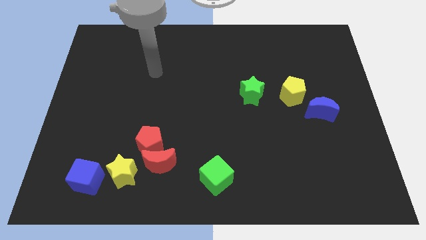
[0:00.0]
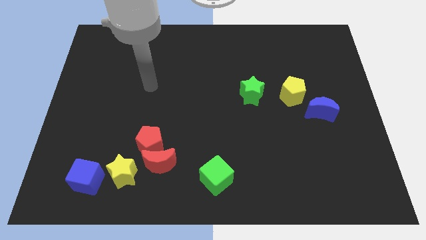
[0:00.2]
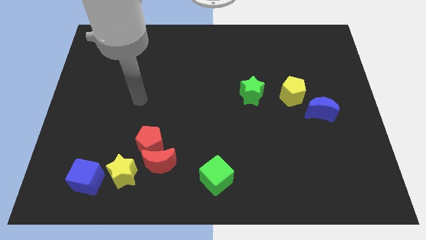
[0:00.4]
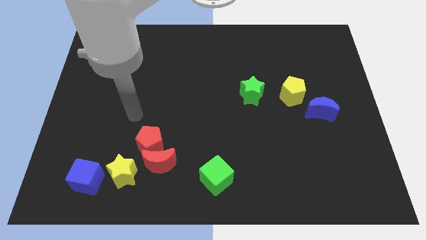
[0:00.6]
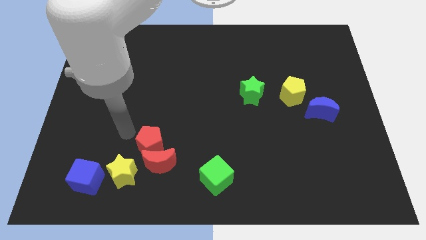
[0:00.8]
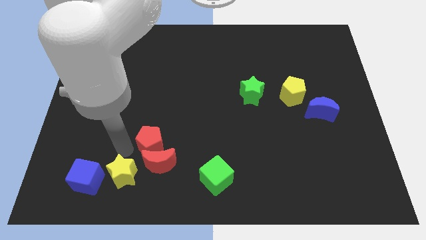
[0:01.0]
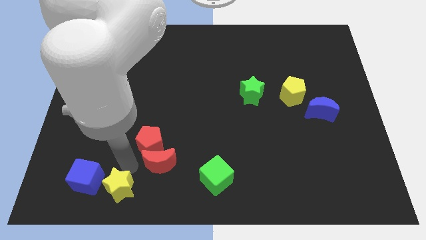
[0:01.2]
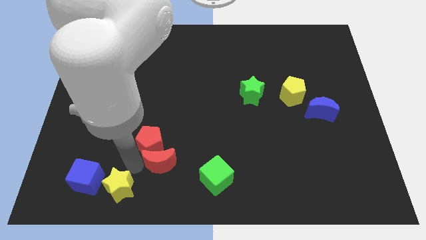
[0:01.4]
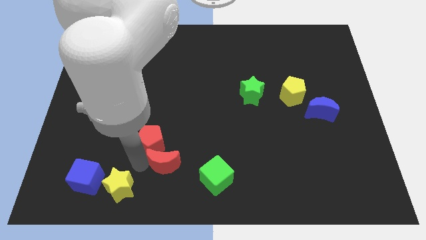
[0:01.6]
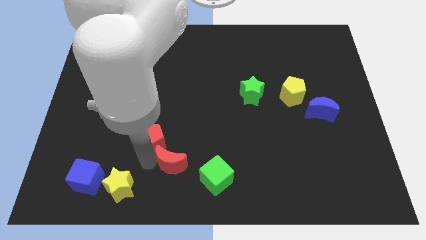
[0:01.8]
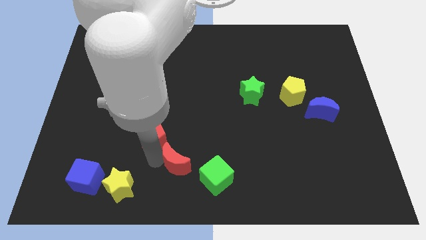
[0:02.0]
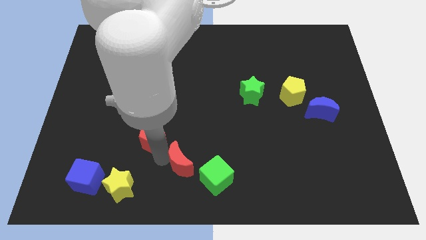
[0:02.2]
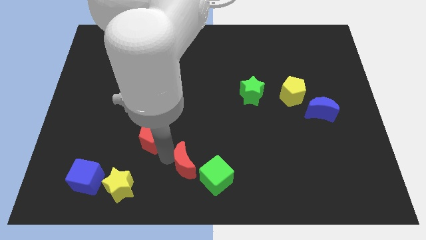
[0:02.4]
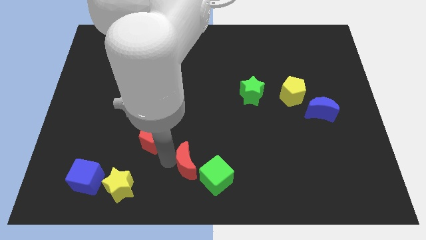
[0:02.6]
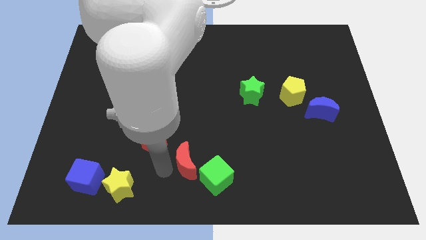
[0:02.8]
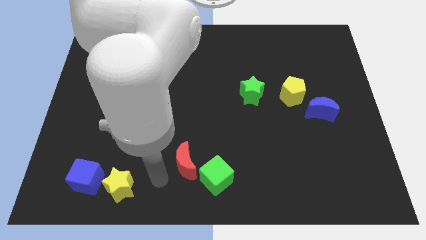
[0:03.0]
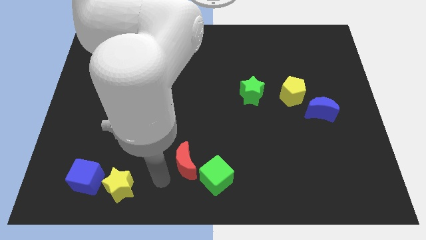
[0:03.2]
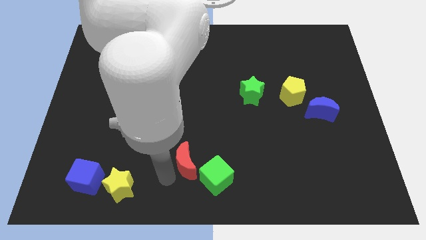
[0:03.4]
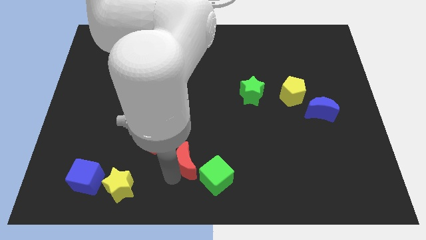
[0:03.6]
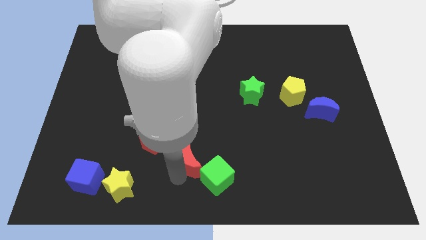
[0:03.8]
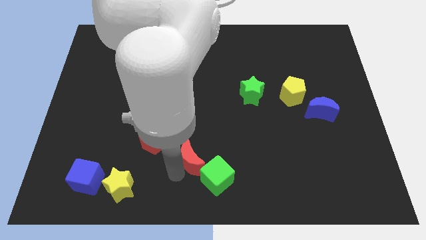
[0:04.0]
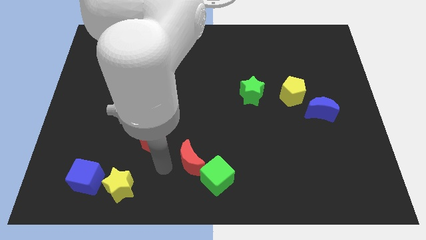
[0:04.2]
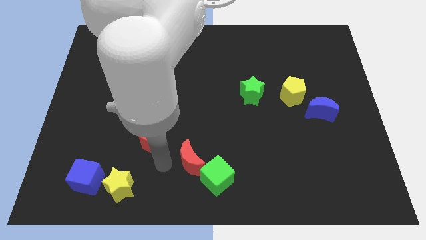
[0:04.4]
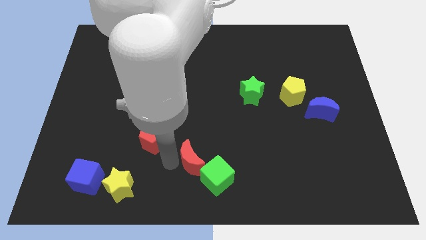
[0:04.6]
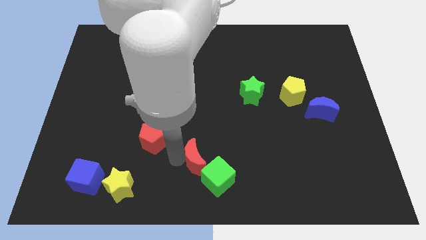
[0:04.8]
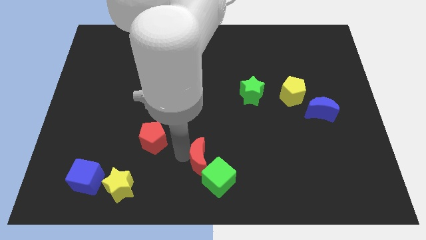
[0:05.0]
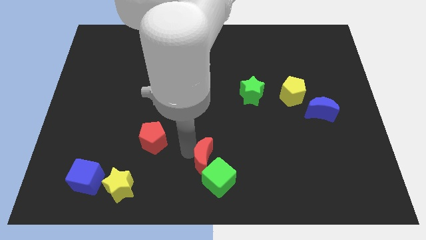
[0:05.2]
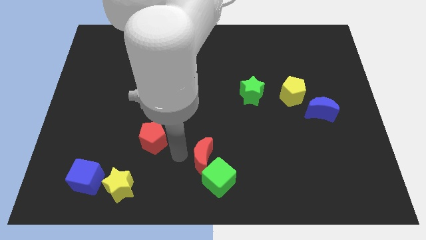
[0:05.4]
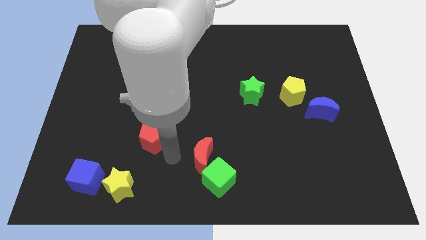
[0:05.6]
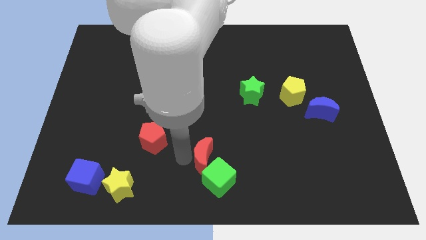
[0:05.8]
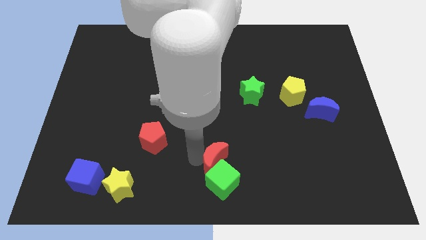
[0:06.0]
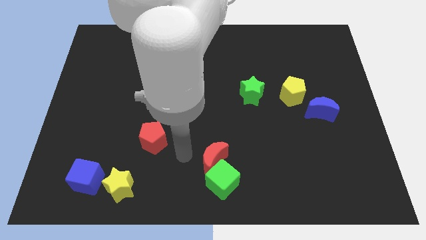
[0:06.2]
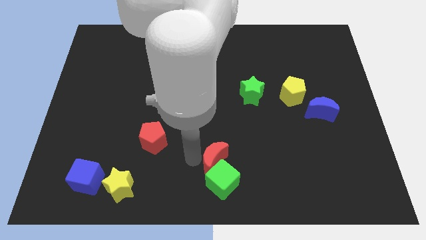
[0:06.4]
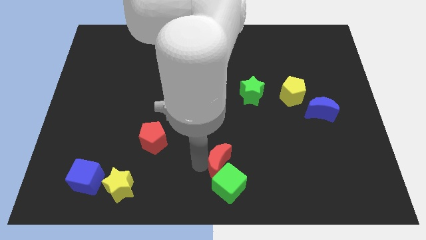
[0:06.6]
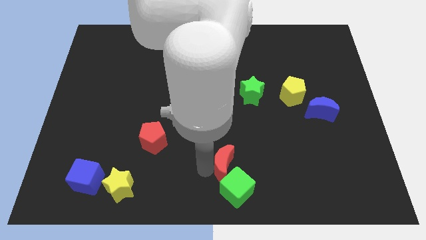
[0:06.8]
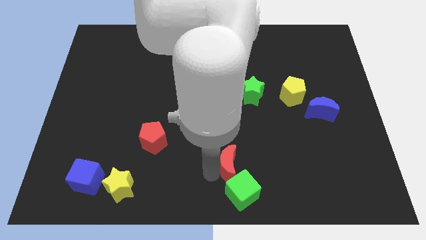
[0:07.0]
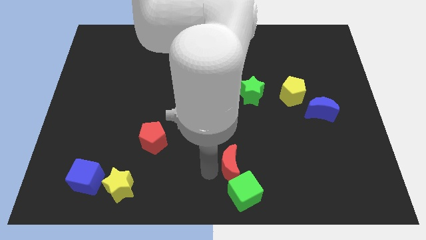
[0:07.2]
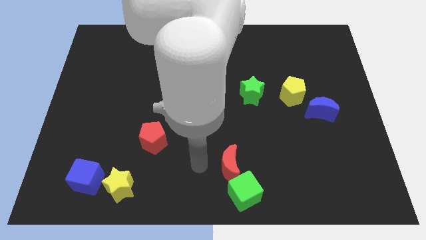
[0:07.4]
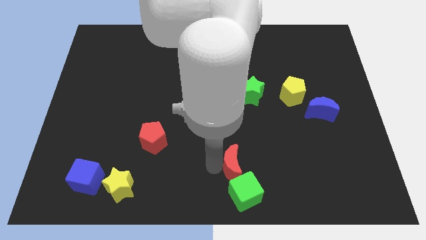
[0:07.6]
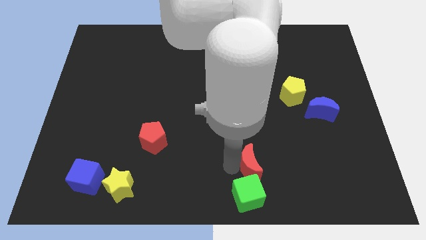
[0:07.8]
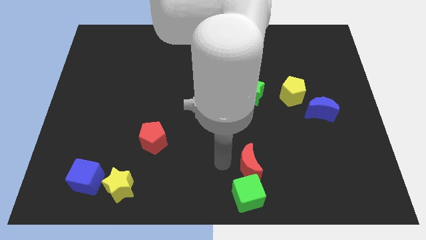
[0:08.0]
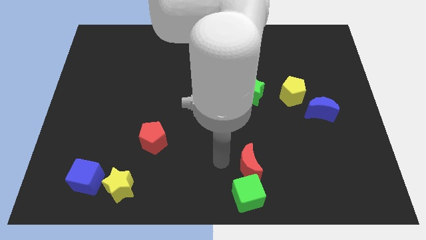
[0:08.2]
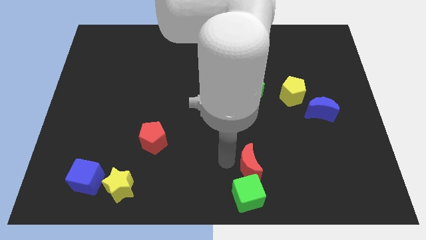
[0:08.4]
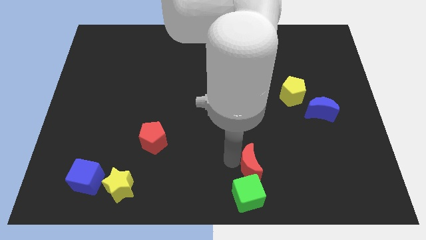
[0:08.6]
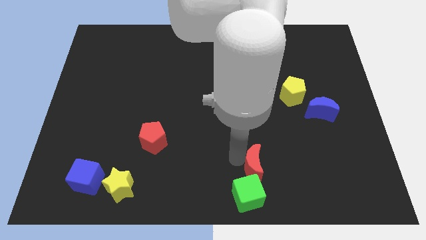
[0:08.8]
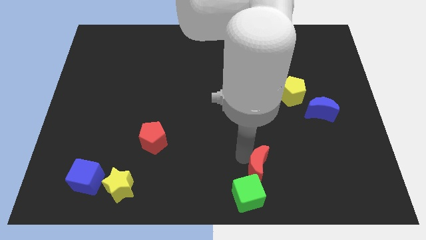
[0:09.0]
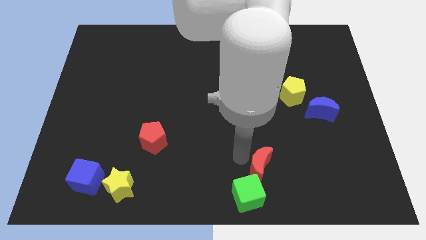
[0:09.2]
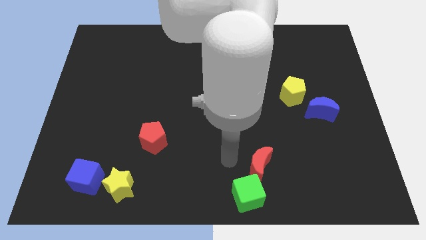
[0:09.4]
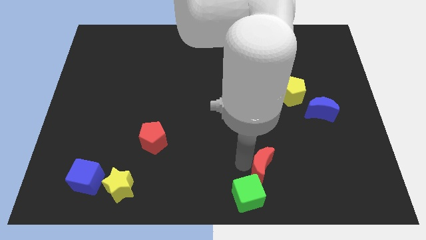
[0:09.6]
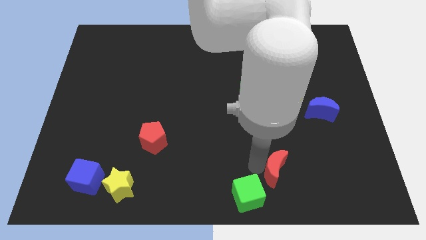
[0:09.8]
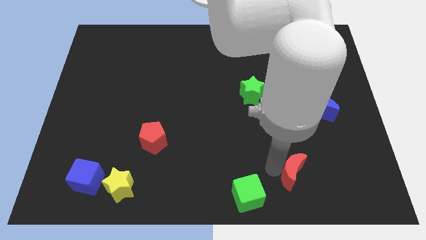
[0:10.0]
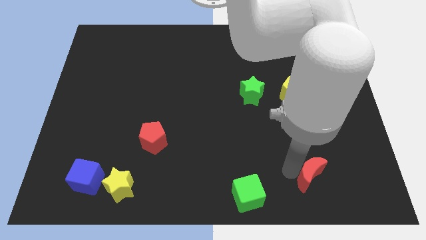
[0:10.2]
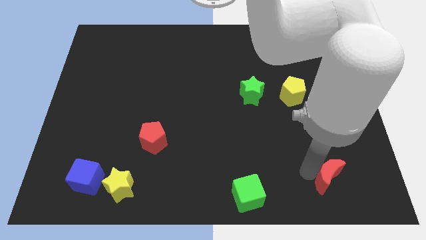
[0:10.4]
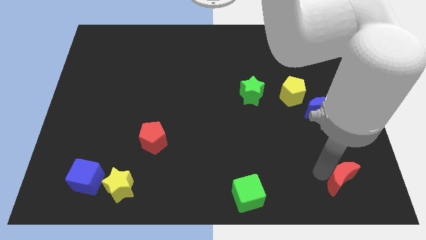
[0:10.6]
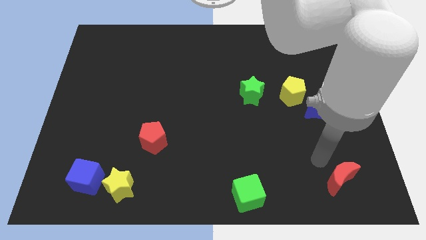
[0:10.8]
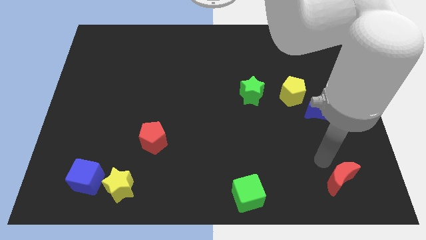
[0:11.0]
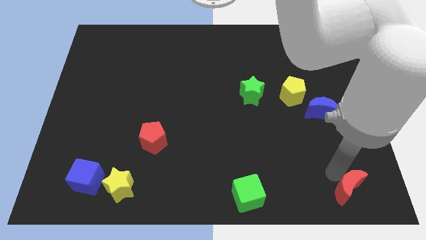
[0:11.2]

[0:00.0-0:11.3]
slide the red moon to the bottom right

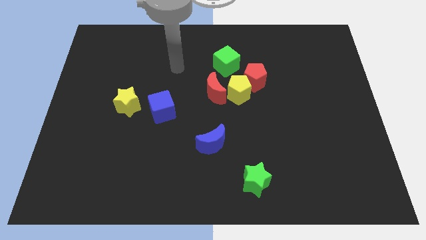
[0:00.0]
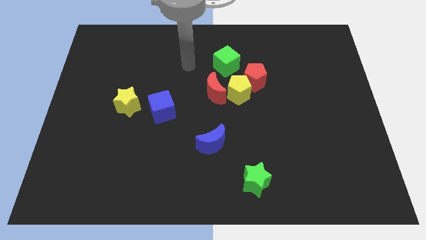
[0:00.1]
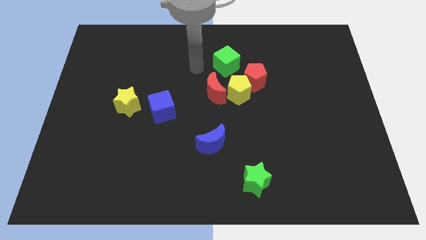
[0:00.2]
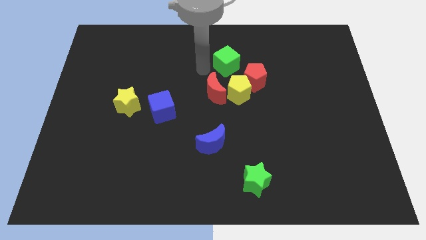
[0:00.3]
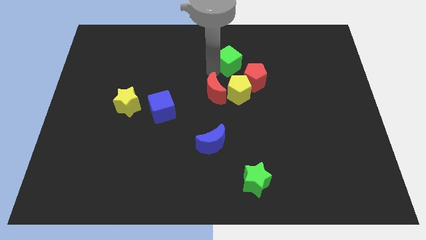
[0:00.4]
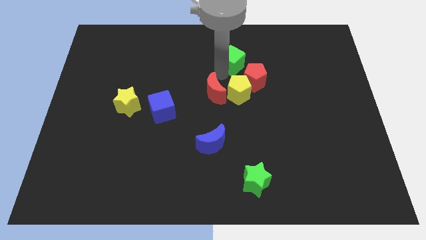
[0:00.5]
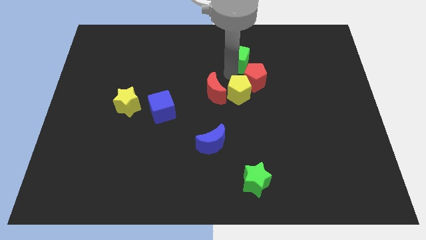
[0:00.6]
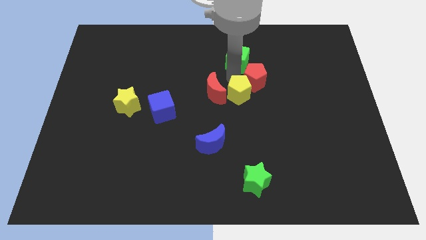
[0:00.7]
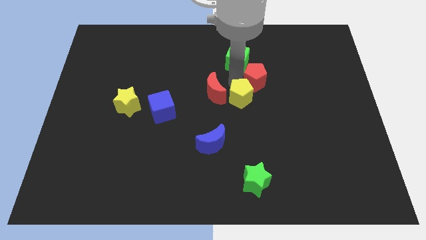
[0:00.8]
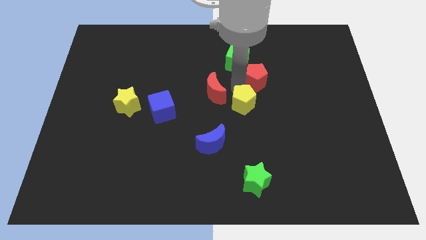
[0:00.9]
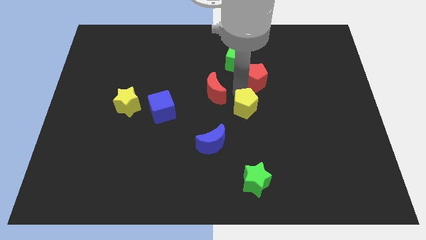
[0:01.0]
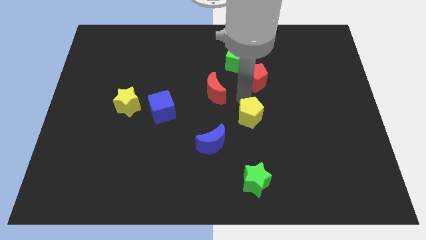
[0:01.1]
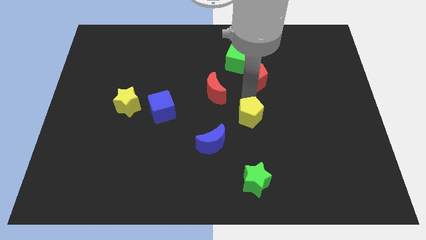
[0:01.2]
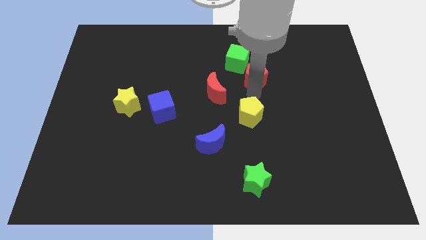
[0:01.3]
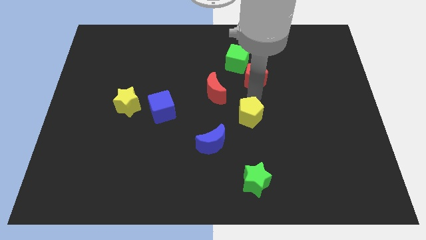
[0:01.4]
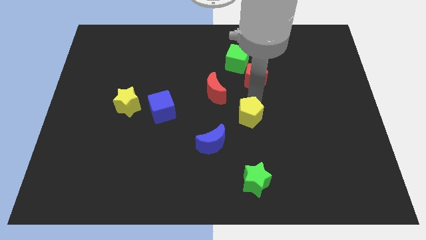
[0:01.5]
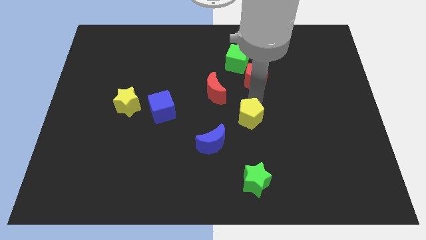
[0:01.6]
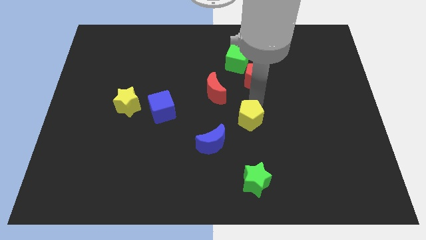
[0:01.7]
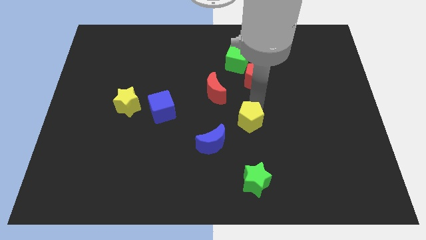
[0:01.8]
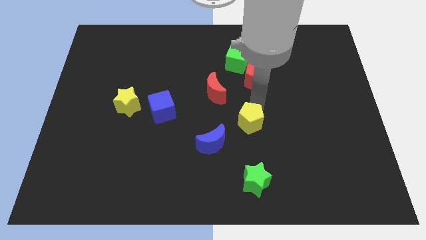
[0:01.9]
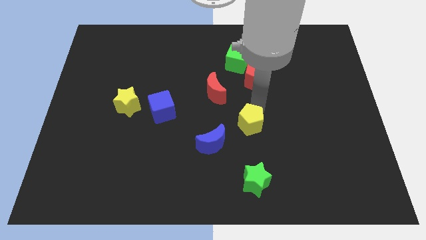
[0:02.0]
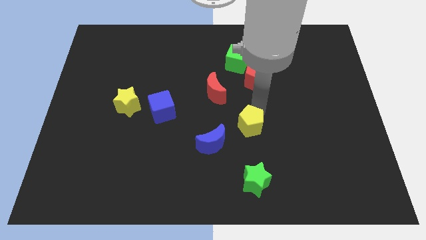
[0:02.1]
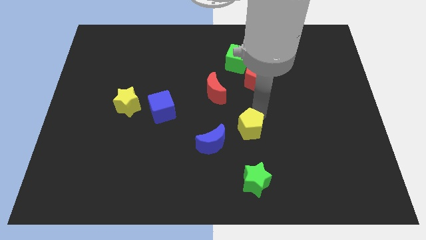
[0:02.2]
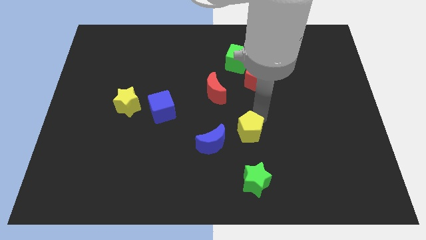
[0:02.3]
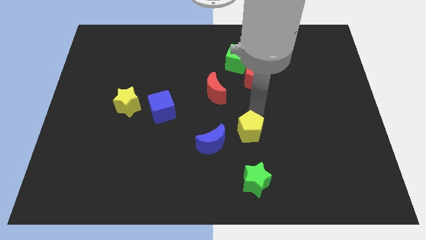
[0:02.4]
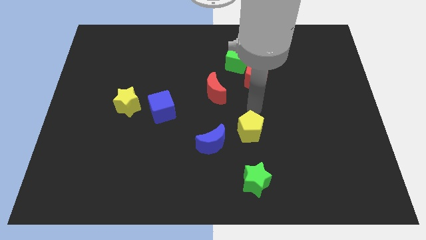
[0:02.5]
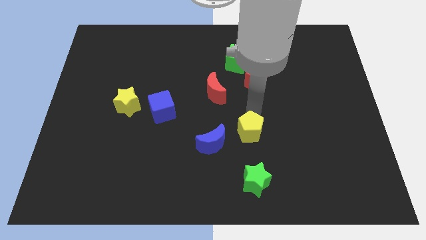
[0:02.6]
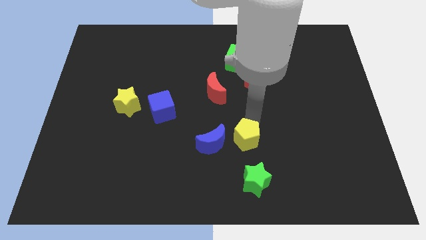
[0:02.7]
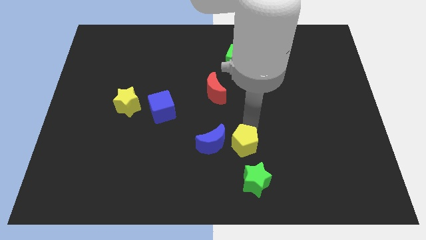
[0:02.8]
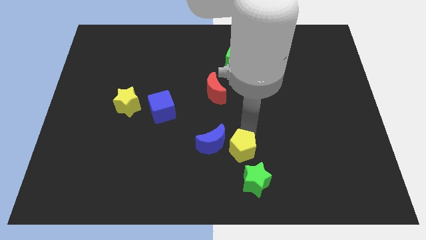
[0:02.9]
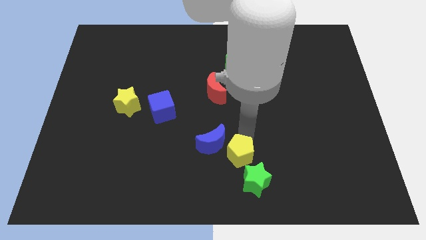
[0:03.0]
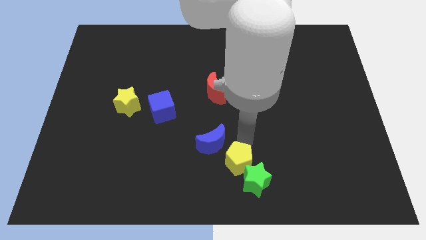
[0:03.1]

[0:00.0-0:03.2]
put the yellow pentagon to the bottom
